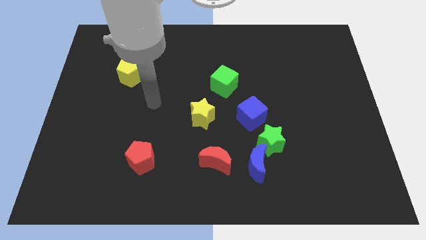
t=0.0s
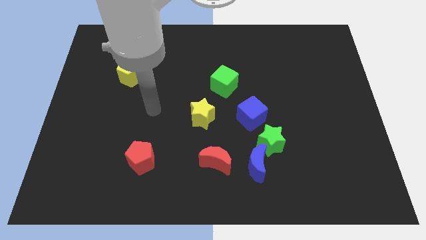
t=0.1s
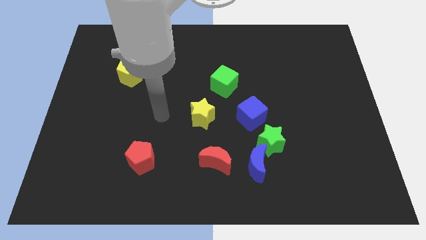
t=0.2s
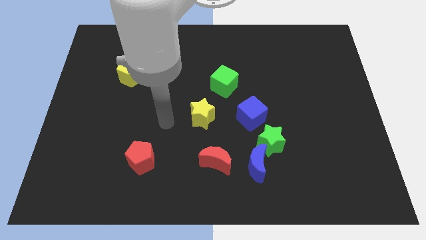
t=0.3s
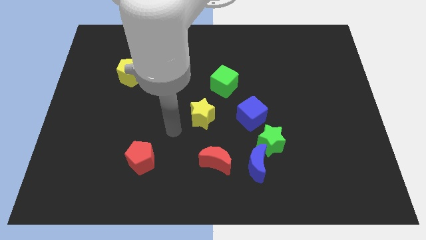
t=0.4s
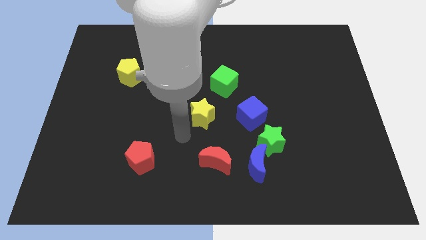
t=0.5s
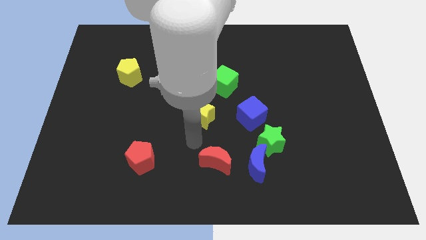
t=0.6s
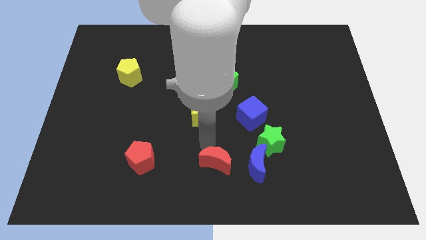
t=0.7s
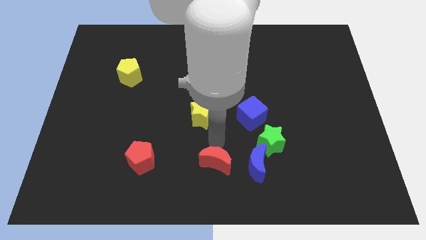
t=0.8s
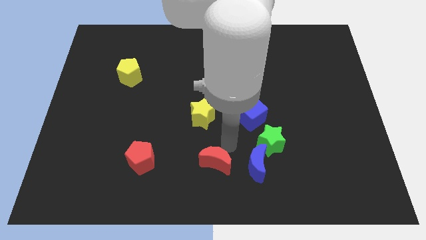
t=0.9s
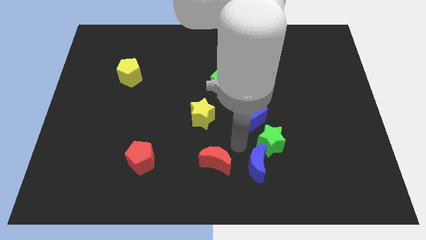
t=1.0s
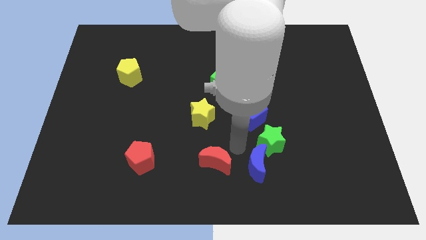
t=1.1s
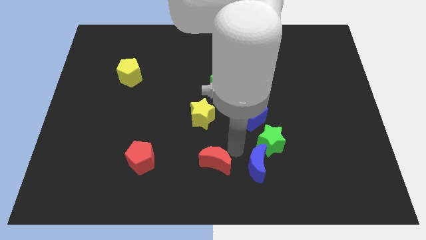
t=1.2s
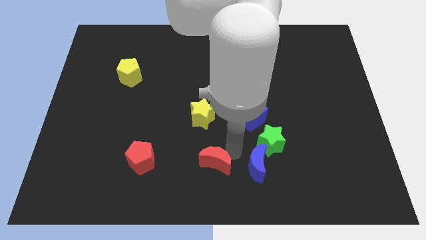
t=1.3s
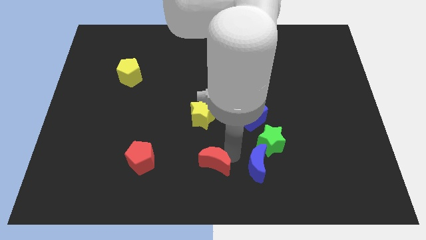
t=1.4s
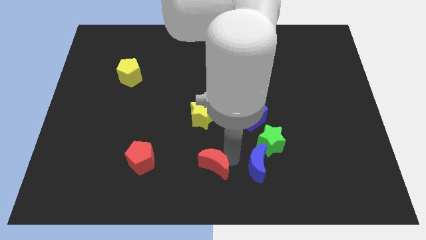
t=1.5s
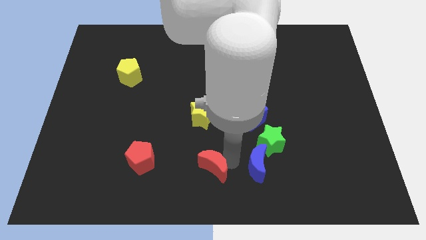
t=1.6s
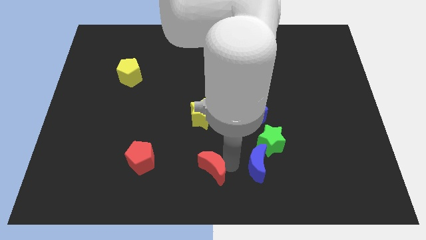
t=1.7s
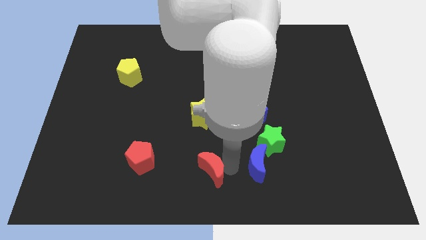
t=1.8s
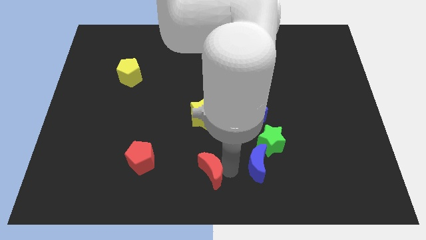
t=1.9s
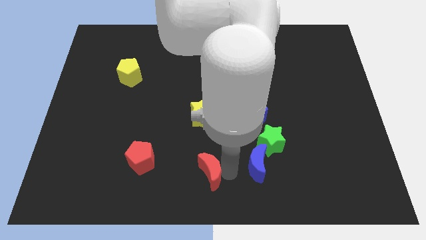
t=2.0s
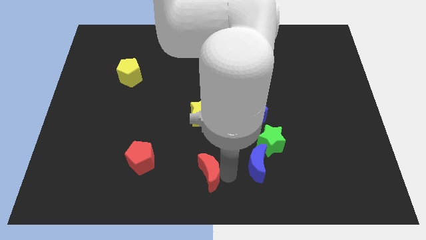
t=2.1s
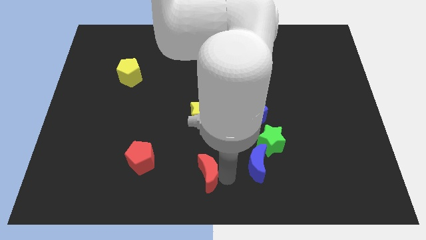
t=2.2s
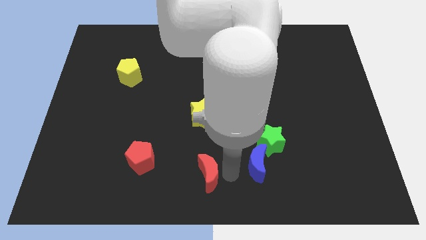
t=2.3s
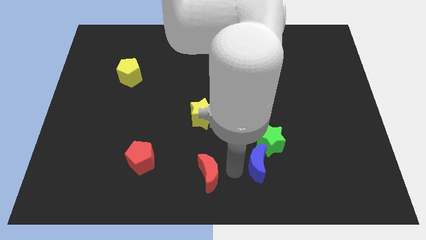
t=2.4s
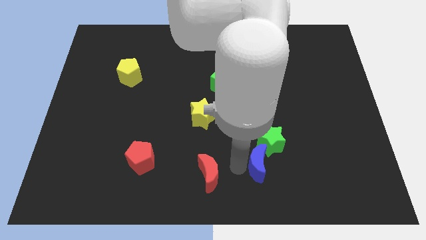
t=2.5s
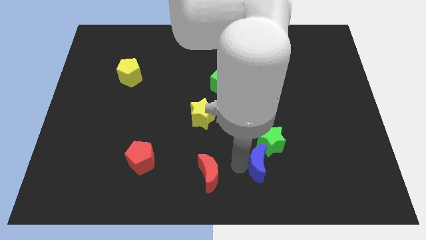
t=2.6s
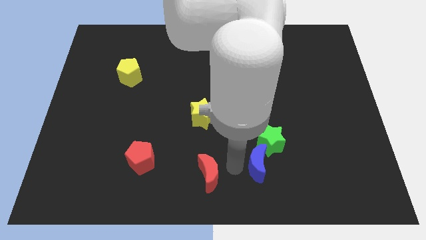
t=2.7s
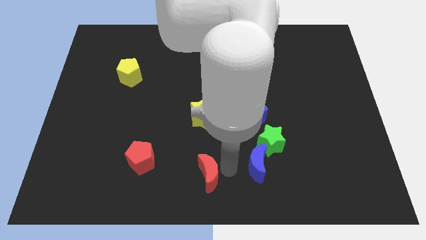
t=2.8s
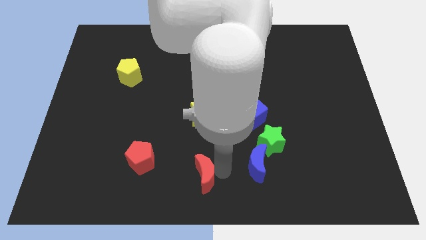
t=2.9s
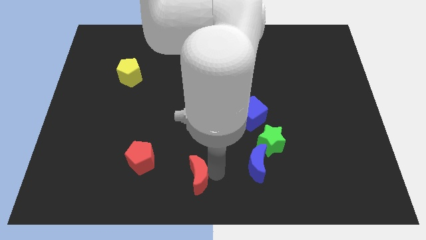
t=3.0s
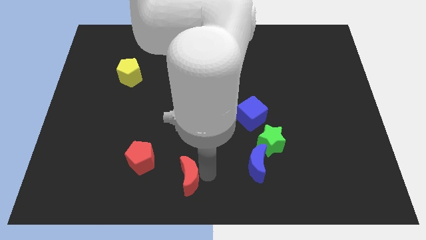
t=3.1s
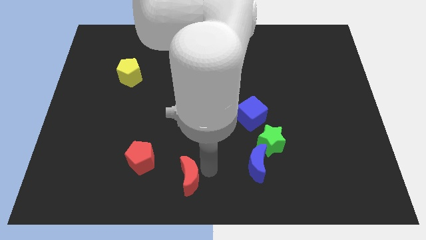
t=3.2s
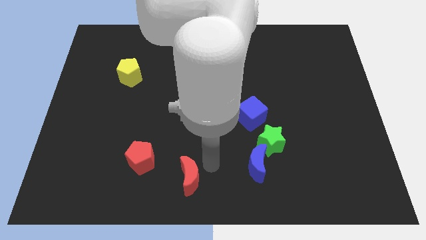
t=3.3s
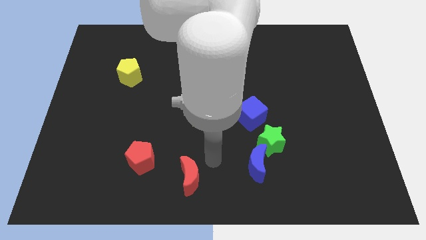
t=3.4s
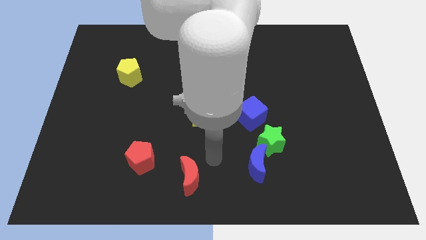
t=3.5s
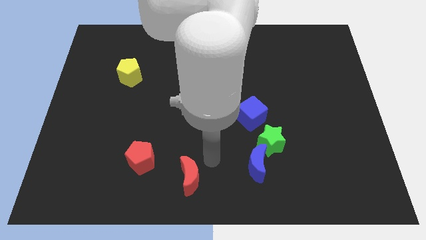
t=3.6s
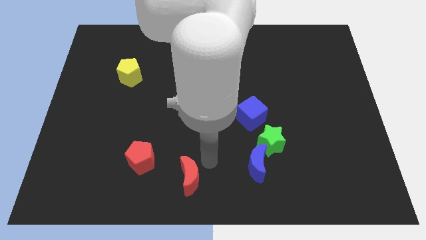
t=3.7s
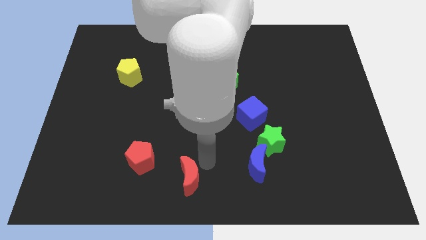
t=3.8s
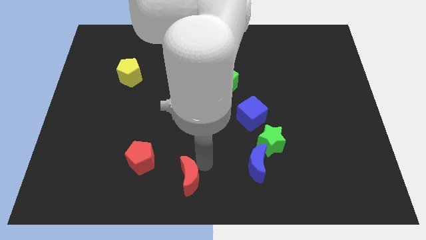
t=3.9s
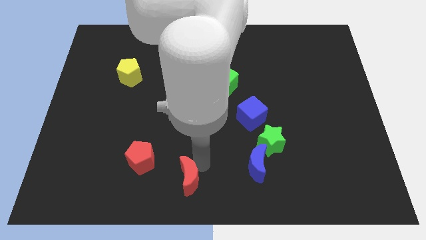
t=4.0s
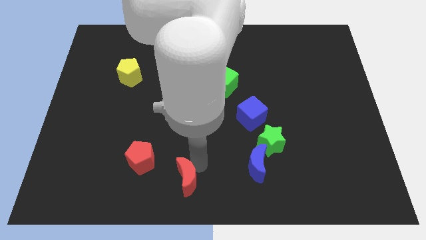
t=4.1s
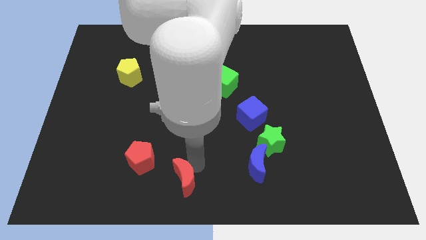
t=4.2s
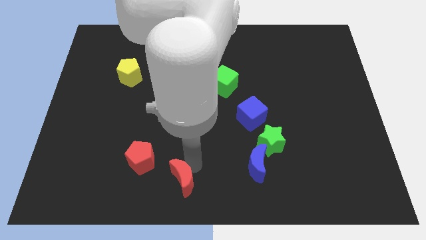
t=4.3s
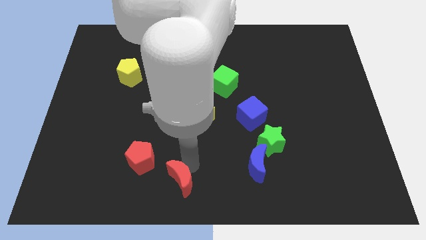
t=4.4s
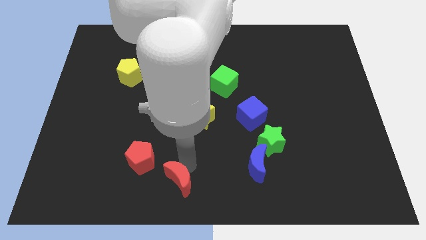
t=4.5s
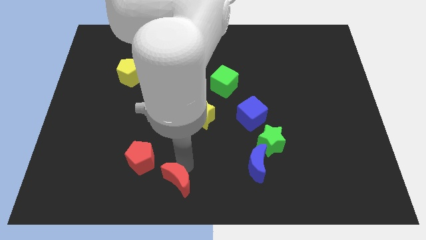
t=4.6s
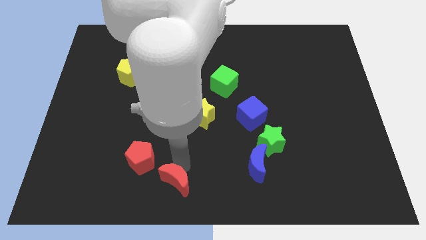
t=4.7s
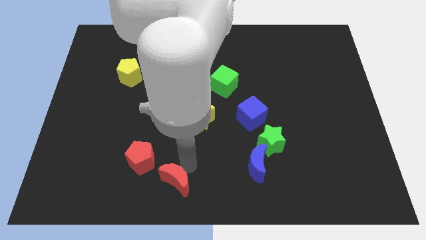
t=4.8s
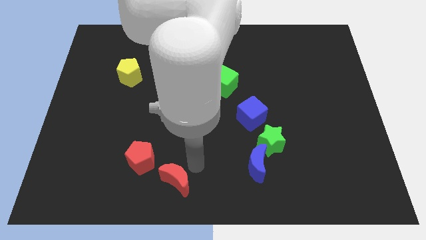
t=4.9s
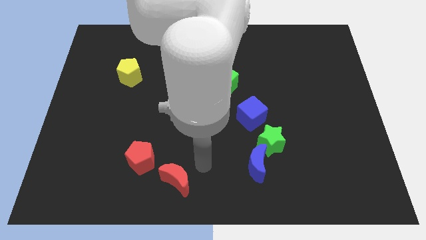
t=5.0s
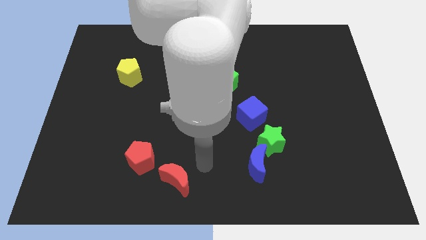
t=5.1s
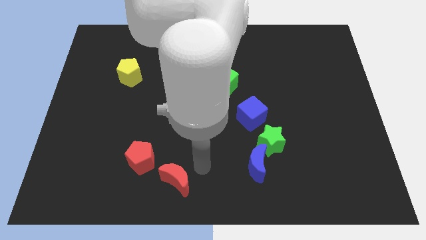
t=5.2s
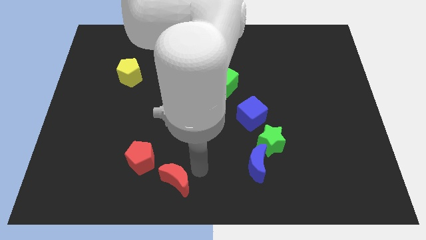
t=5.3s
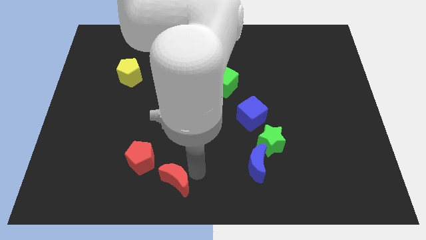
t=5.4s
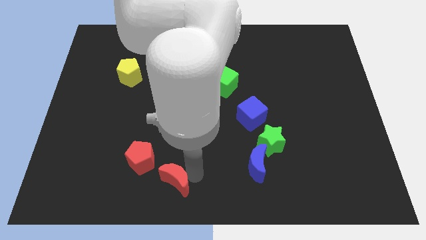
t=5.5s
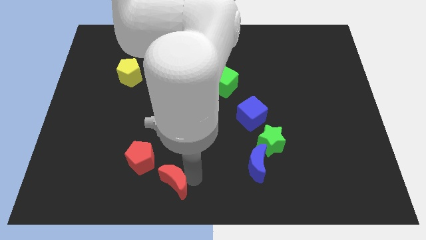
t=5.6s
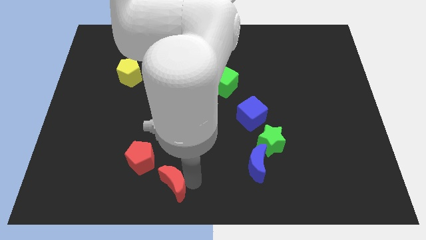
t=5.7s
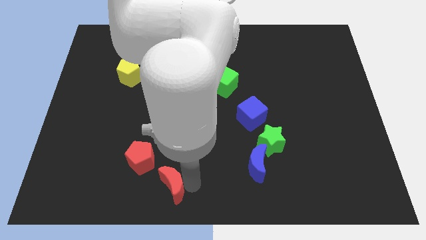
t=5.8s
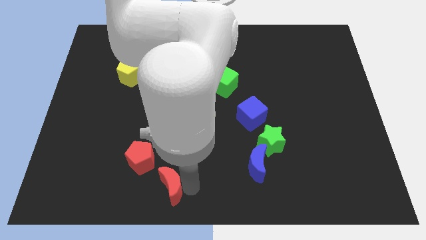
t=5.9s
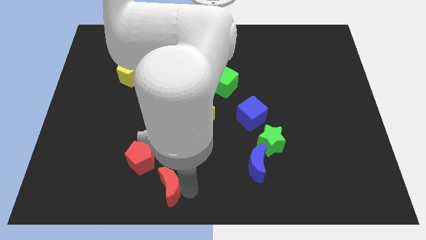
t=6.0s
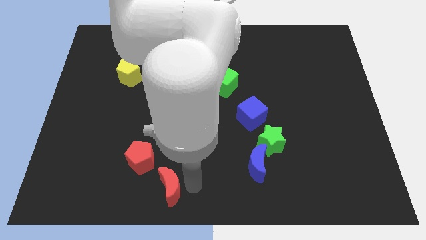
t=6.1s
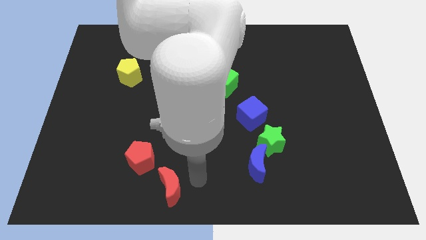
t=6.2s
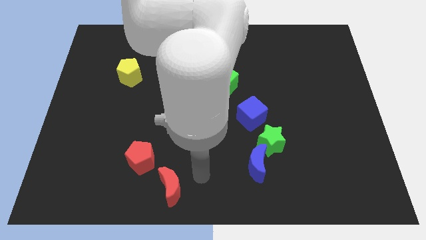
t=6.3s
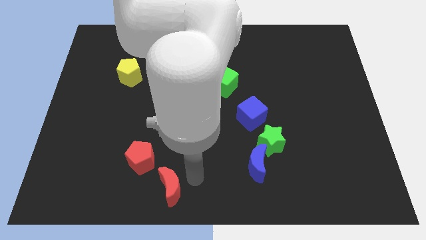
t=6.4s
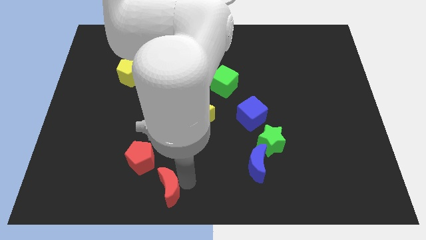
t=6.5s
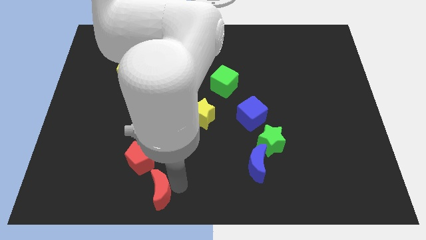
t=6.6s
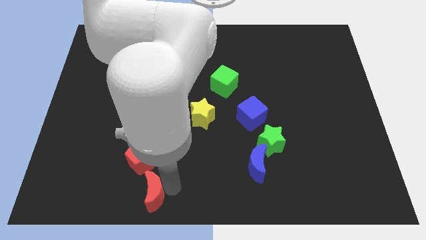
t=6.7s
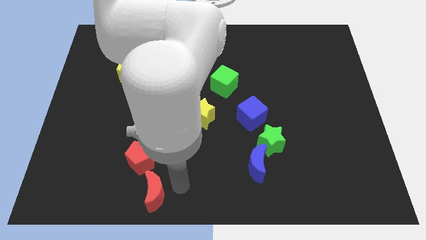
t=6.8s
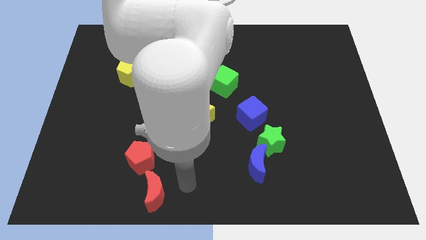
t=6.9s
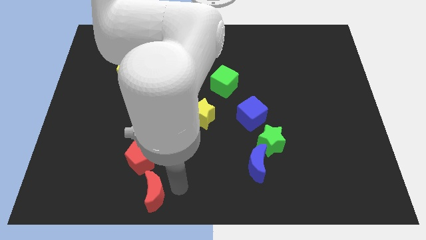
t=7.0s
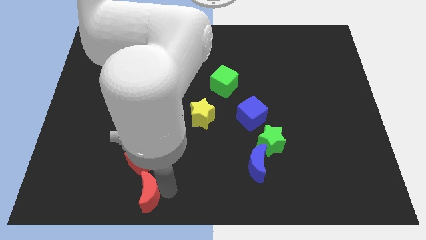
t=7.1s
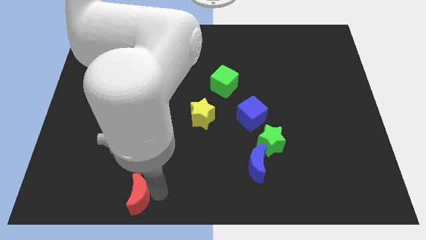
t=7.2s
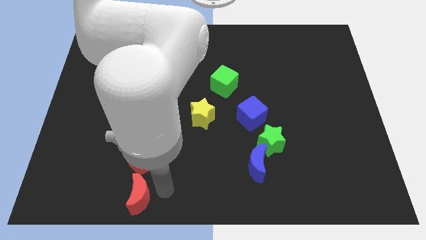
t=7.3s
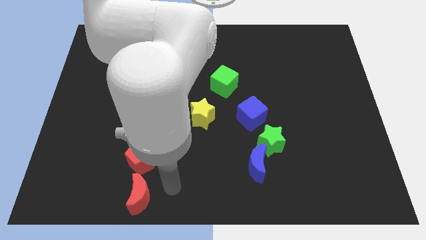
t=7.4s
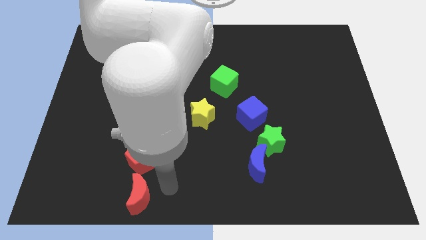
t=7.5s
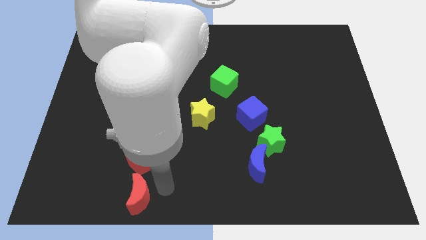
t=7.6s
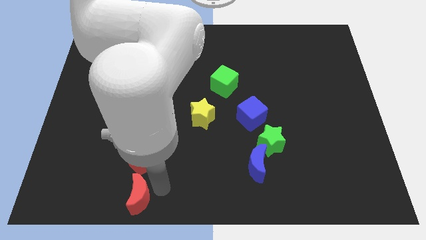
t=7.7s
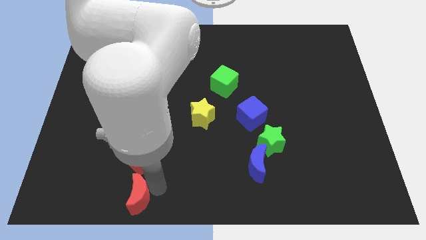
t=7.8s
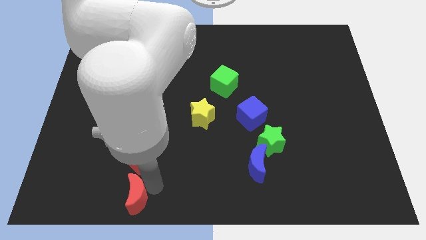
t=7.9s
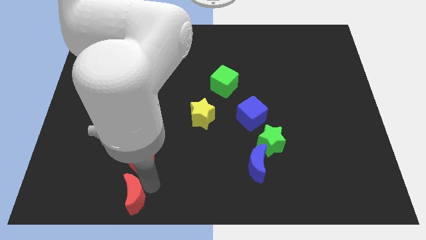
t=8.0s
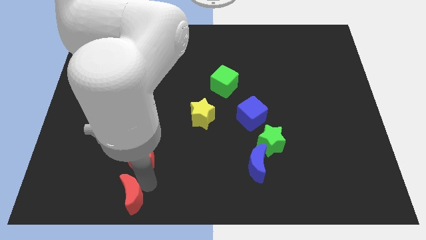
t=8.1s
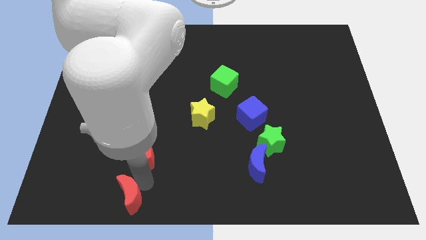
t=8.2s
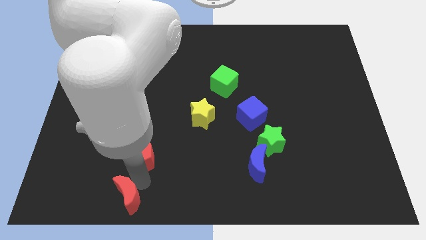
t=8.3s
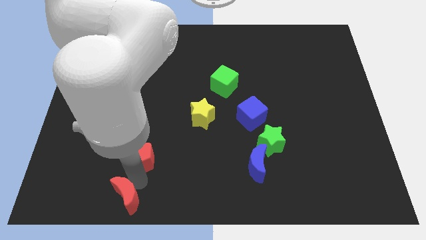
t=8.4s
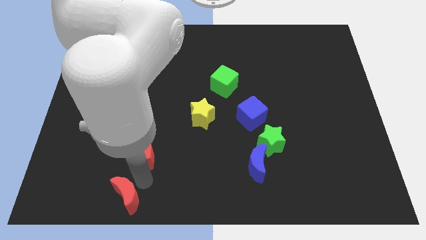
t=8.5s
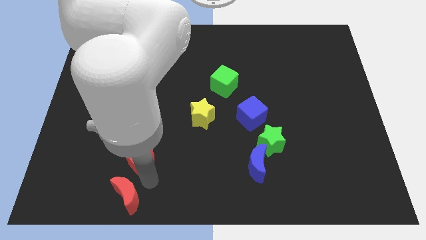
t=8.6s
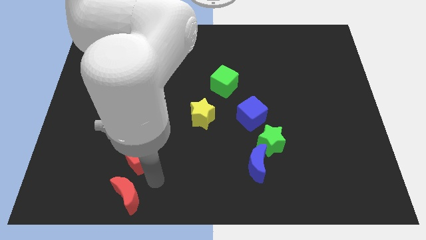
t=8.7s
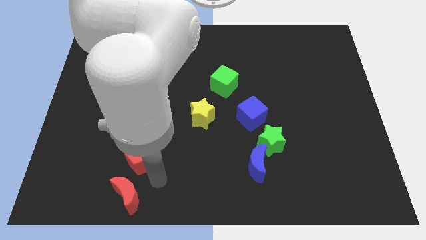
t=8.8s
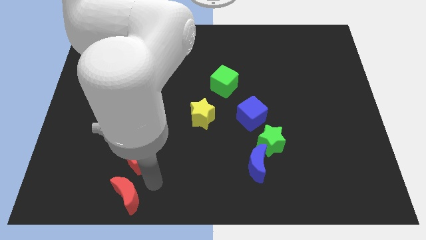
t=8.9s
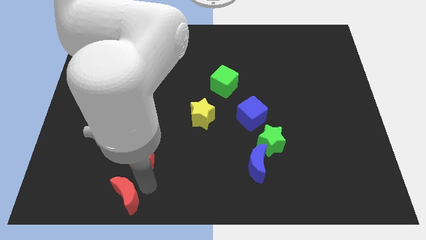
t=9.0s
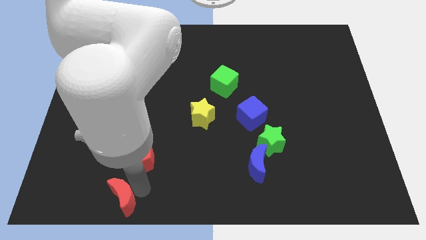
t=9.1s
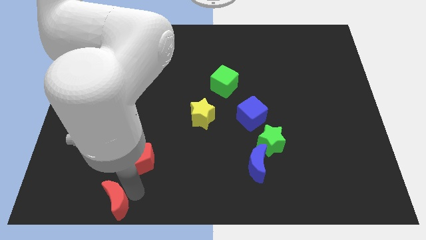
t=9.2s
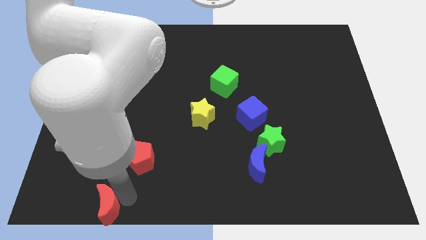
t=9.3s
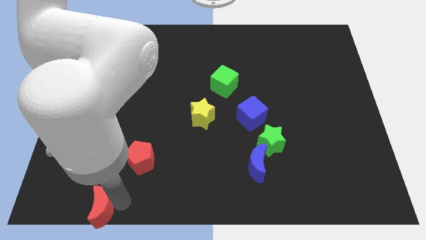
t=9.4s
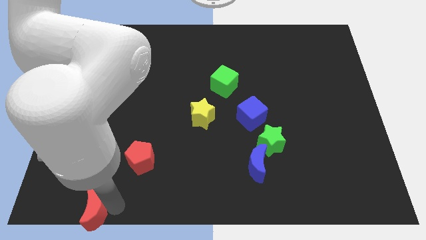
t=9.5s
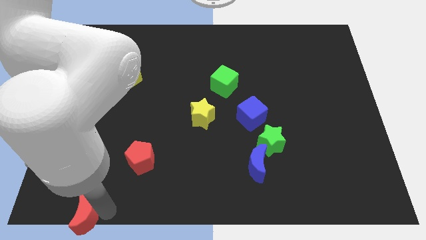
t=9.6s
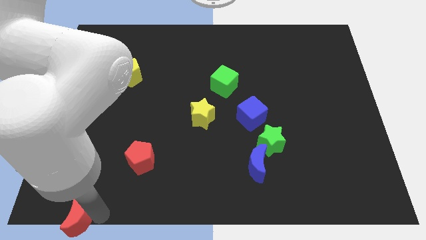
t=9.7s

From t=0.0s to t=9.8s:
put the red moon to the bottom left corner
